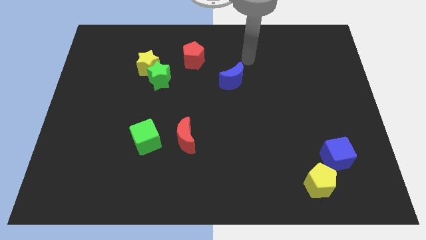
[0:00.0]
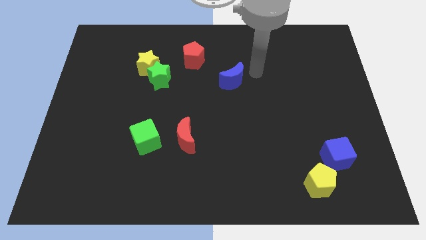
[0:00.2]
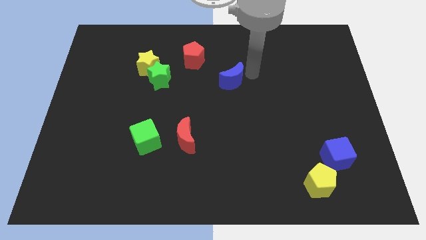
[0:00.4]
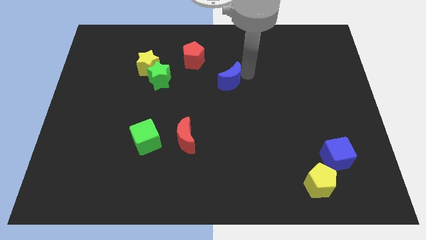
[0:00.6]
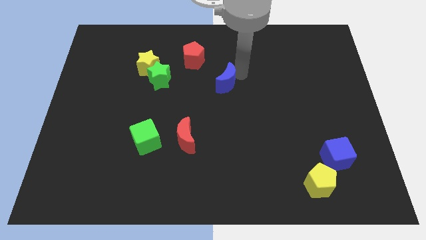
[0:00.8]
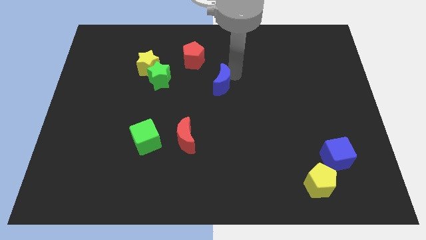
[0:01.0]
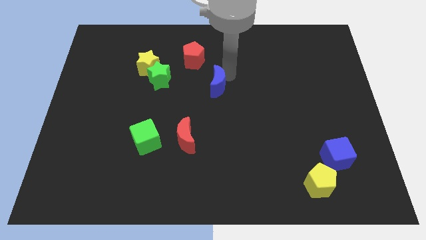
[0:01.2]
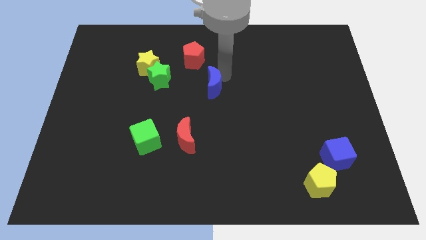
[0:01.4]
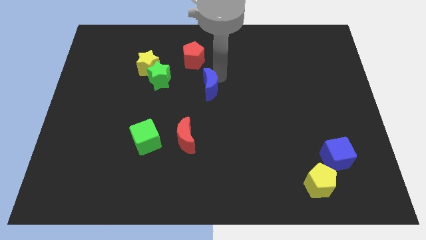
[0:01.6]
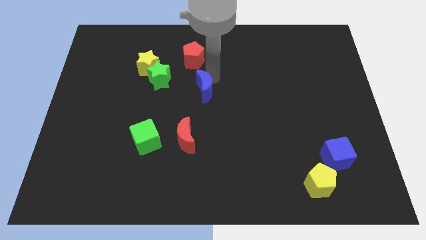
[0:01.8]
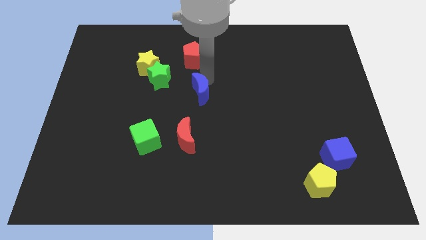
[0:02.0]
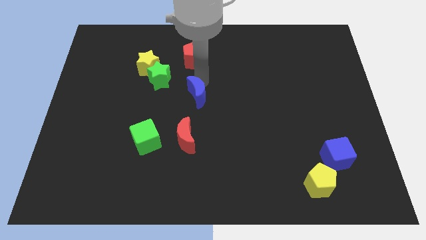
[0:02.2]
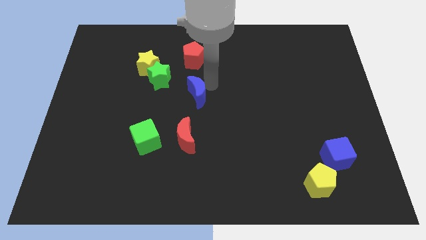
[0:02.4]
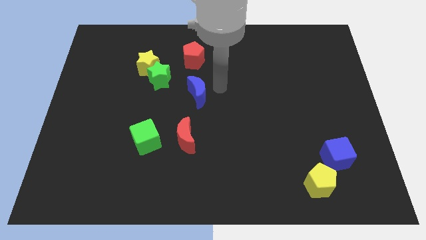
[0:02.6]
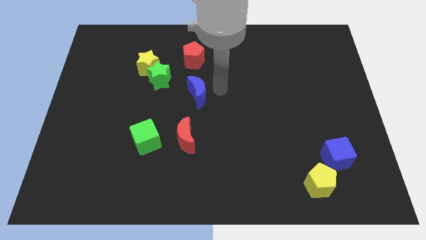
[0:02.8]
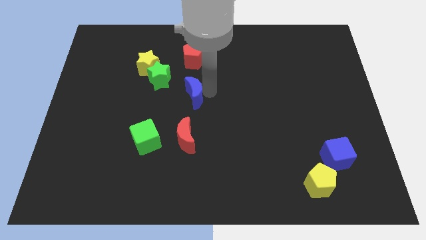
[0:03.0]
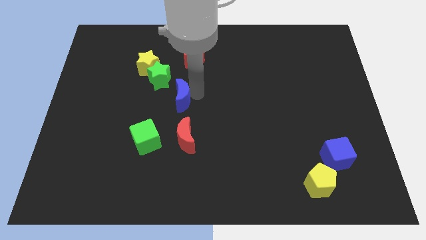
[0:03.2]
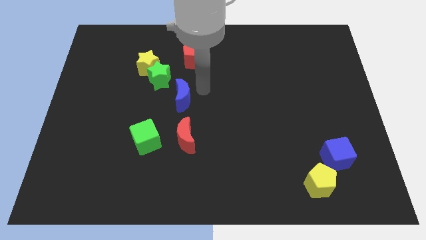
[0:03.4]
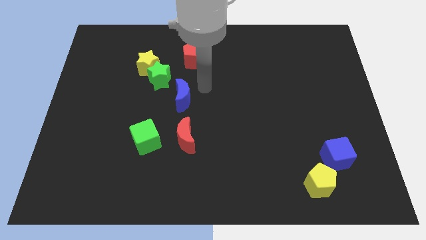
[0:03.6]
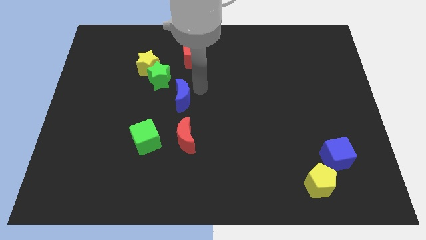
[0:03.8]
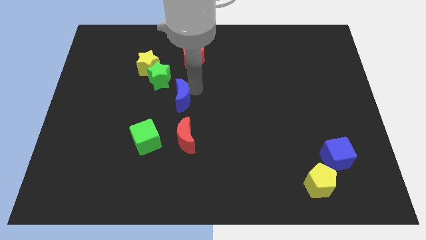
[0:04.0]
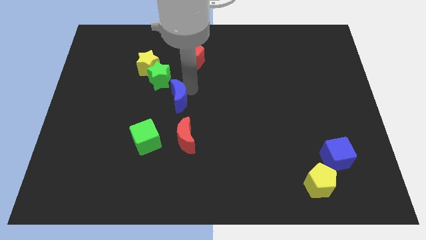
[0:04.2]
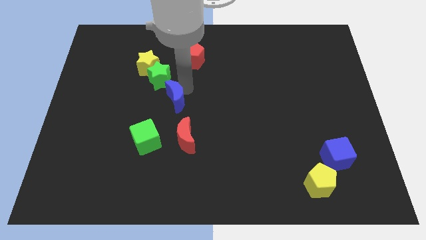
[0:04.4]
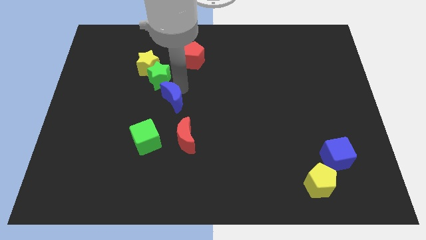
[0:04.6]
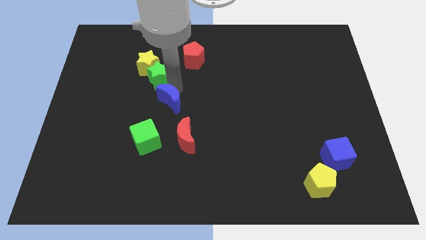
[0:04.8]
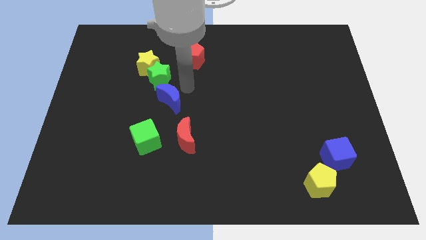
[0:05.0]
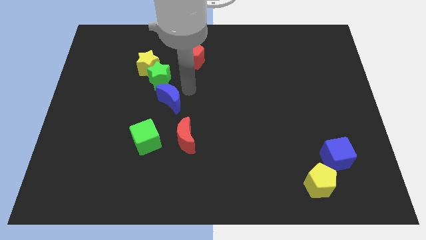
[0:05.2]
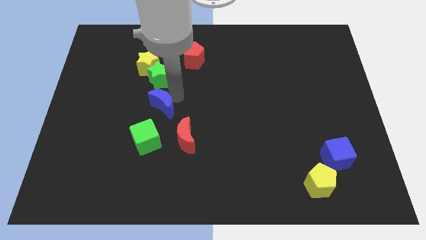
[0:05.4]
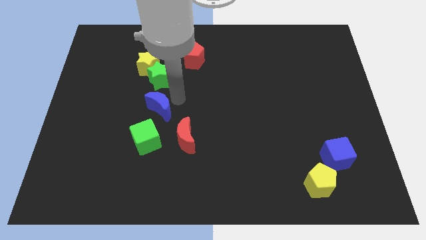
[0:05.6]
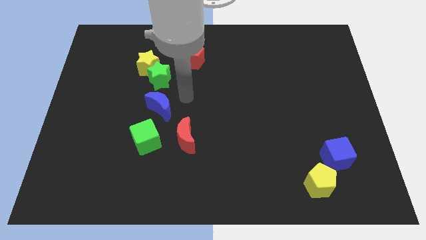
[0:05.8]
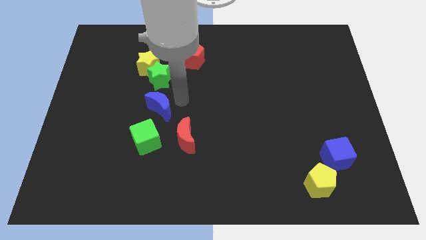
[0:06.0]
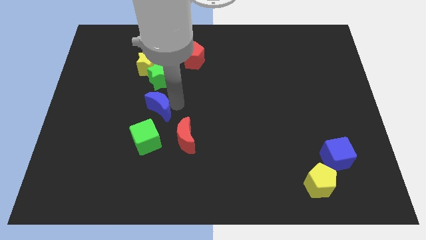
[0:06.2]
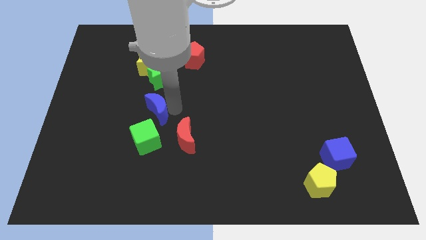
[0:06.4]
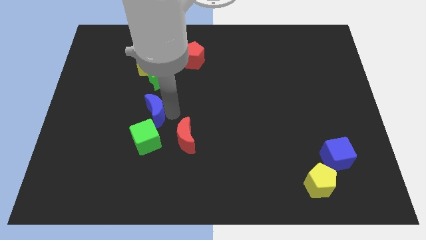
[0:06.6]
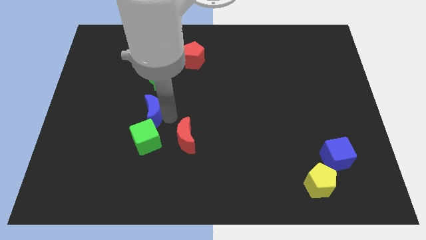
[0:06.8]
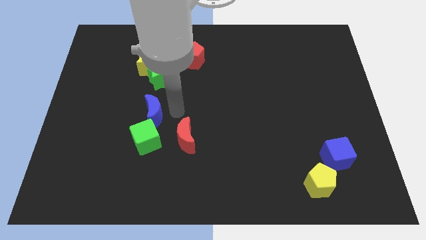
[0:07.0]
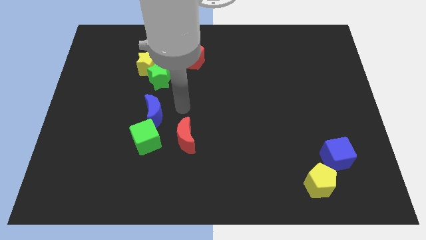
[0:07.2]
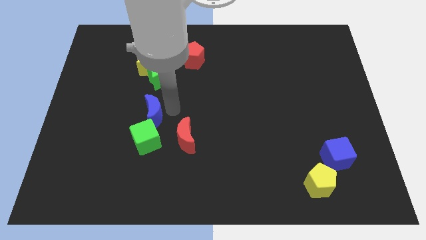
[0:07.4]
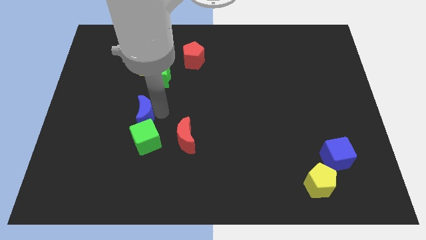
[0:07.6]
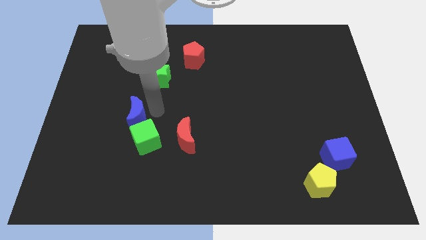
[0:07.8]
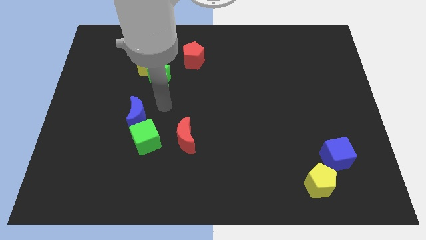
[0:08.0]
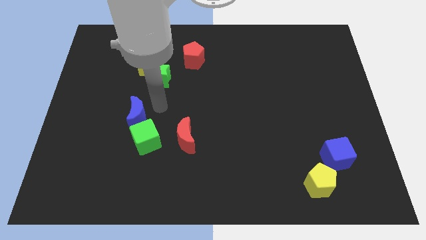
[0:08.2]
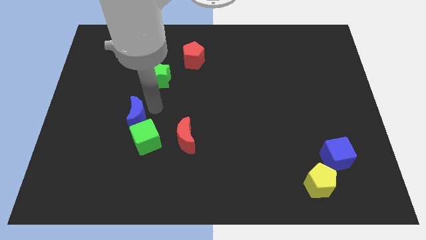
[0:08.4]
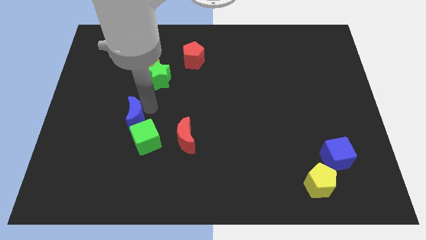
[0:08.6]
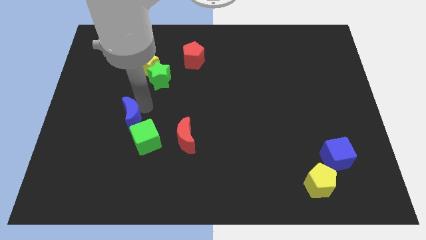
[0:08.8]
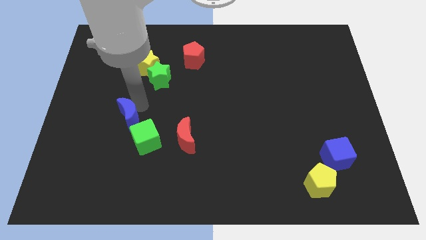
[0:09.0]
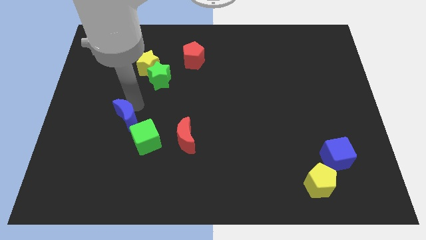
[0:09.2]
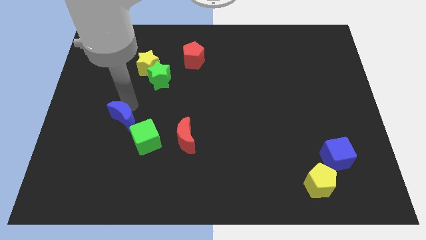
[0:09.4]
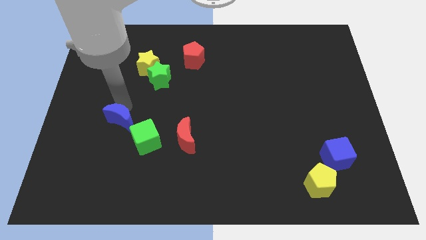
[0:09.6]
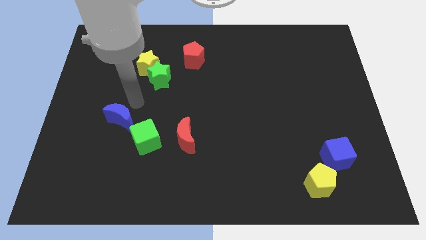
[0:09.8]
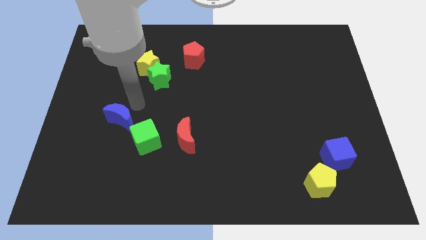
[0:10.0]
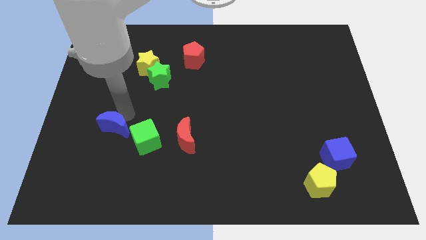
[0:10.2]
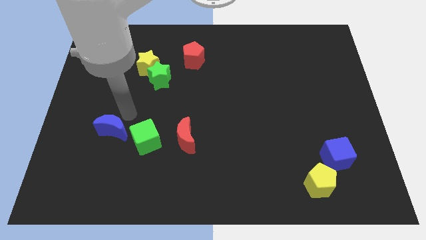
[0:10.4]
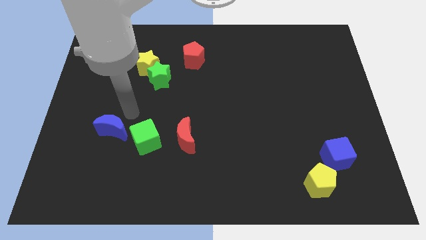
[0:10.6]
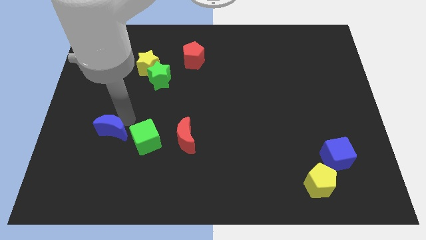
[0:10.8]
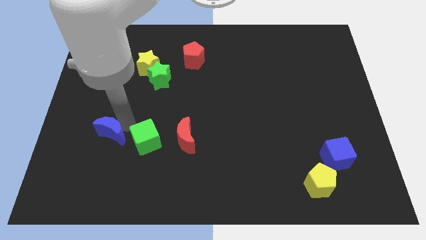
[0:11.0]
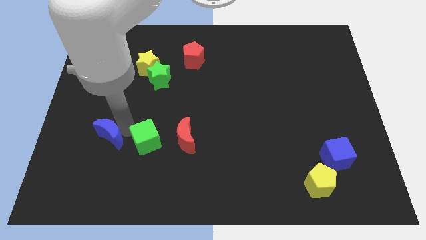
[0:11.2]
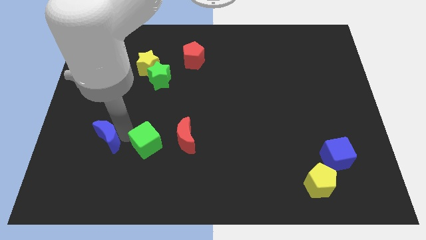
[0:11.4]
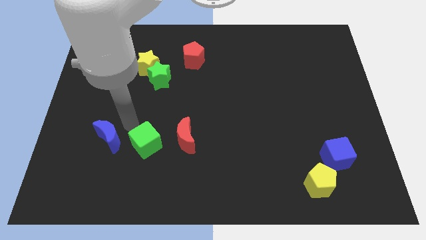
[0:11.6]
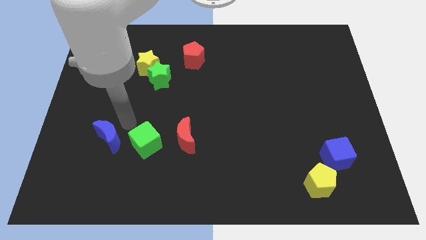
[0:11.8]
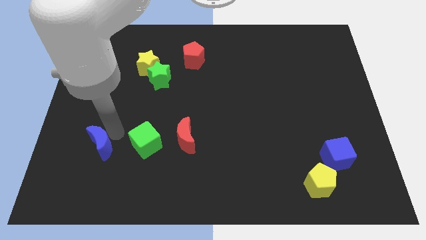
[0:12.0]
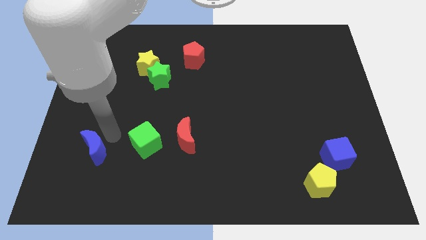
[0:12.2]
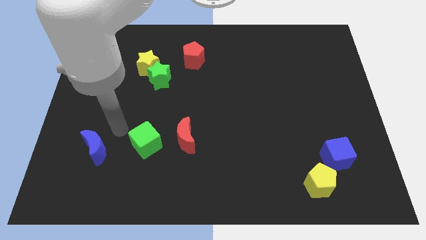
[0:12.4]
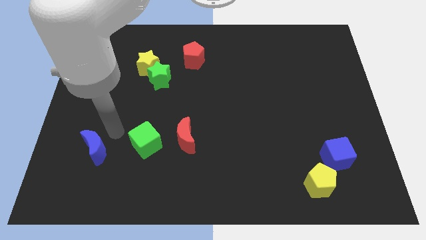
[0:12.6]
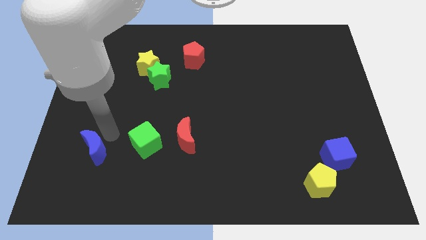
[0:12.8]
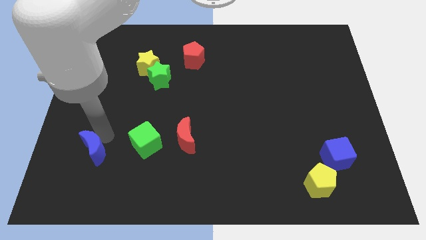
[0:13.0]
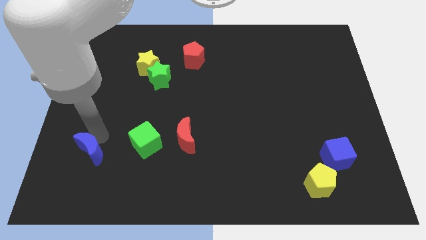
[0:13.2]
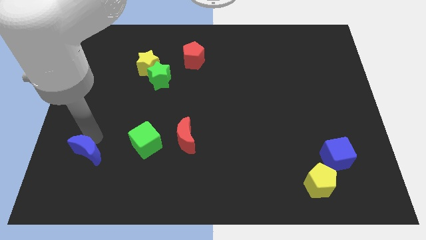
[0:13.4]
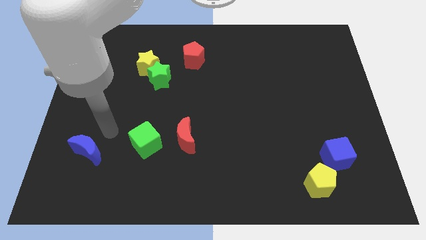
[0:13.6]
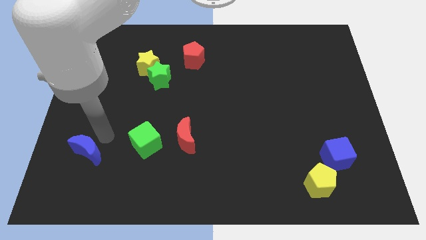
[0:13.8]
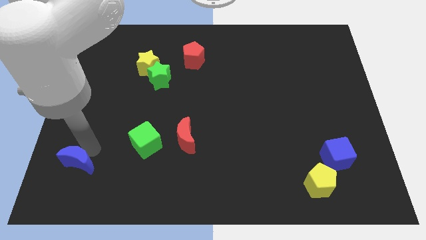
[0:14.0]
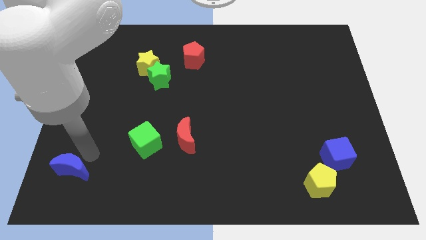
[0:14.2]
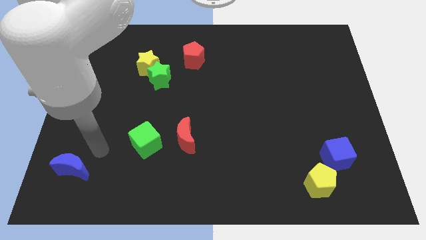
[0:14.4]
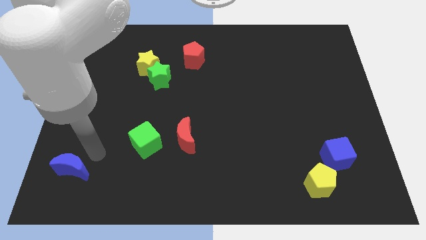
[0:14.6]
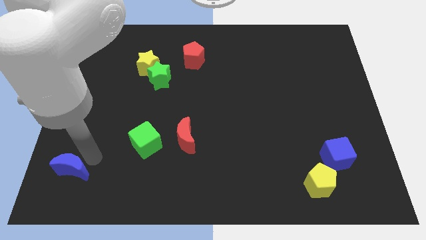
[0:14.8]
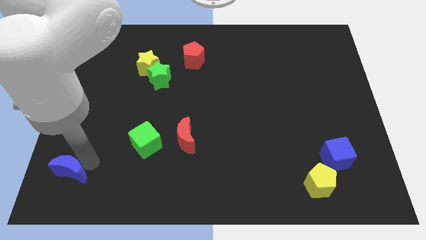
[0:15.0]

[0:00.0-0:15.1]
push the blue moon to the bottom left of the board
